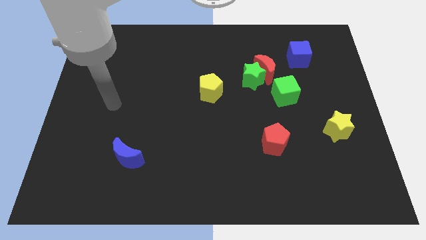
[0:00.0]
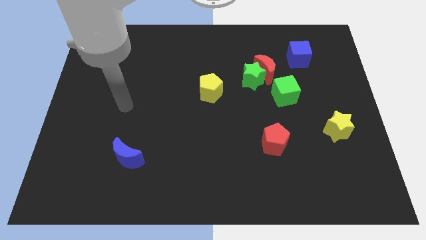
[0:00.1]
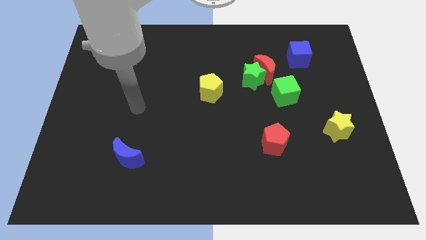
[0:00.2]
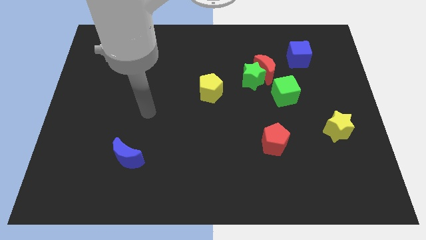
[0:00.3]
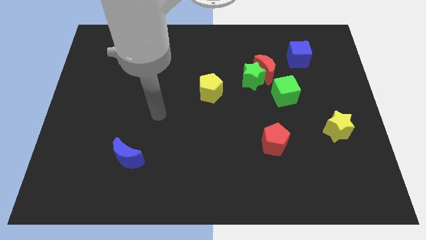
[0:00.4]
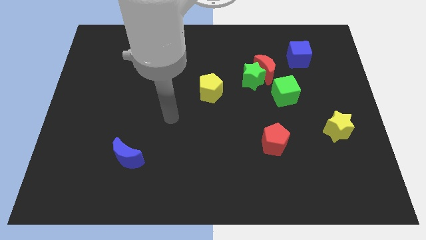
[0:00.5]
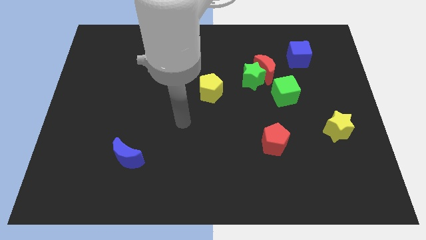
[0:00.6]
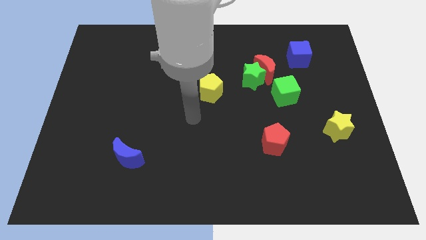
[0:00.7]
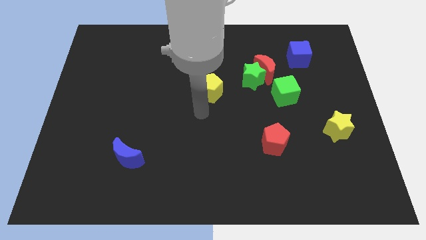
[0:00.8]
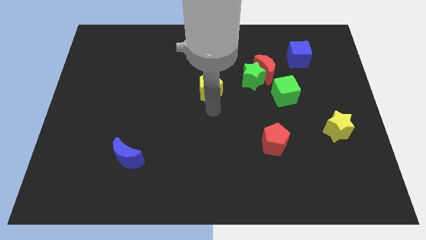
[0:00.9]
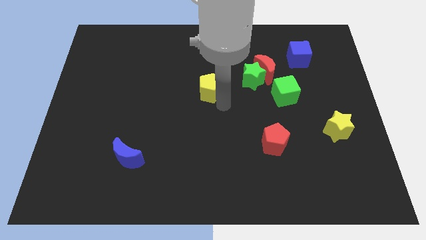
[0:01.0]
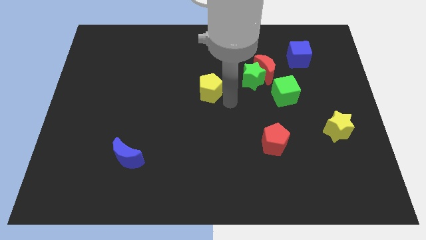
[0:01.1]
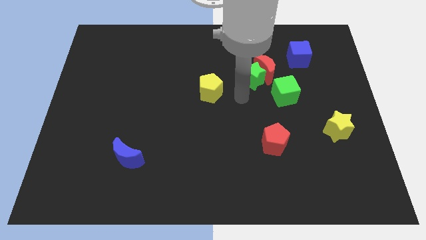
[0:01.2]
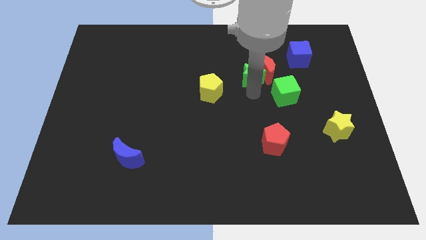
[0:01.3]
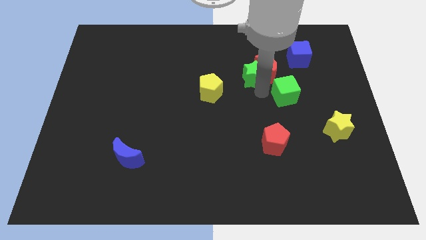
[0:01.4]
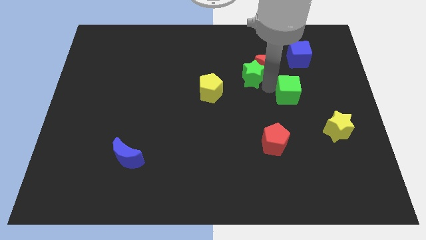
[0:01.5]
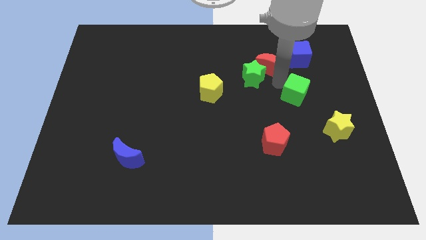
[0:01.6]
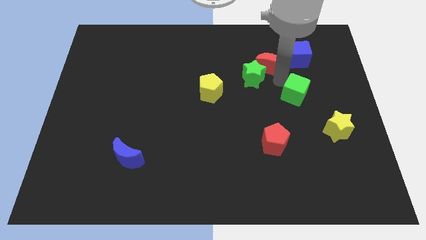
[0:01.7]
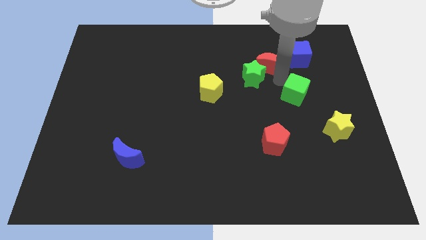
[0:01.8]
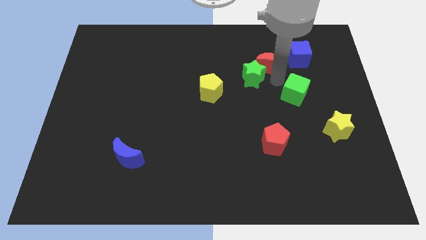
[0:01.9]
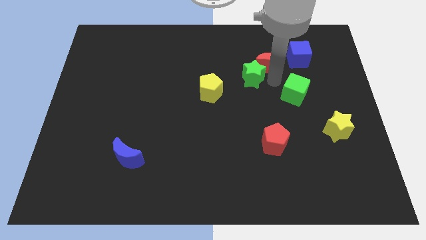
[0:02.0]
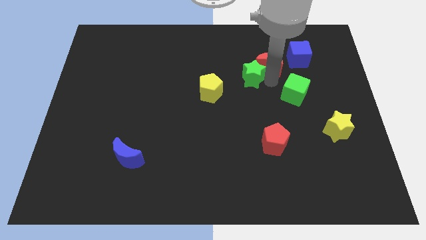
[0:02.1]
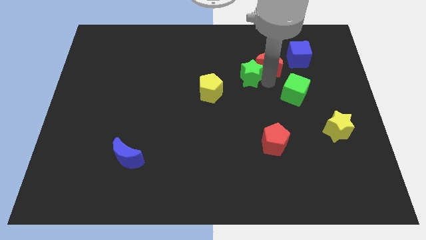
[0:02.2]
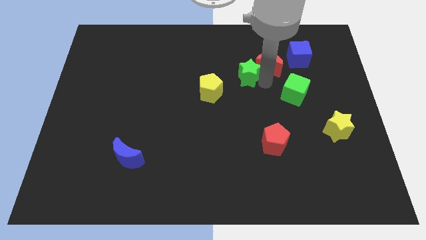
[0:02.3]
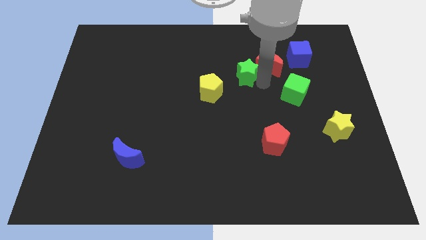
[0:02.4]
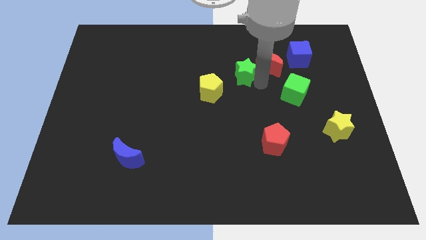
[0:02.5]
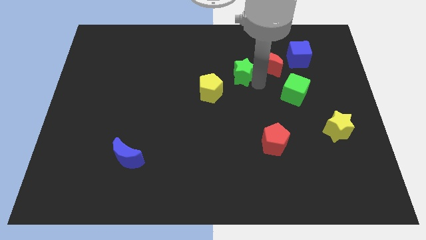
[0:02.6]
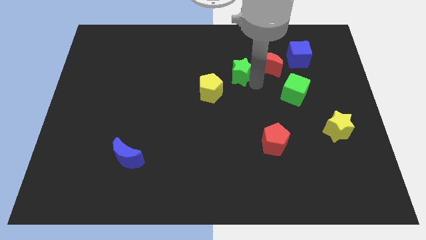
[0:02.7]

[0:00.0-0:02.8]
separate the green star from the red moon and green cube

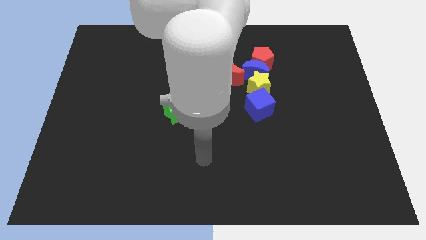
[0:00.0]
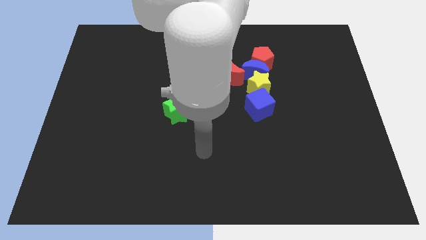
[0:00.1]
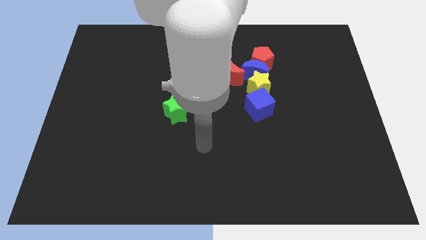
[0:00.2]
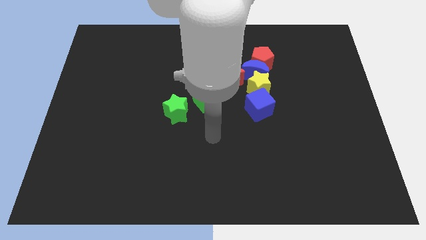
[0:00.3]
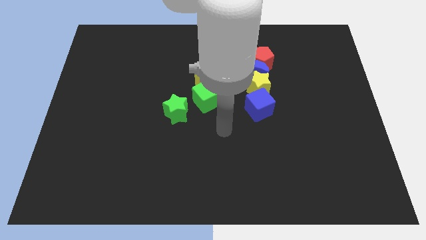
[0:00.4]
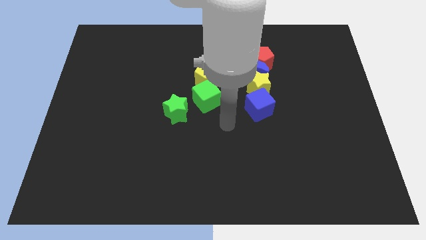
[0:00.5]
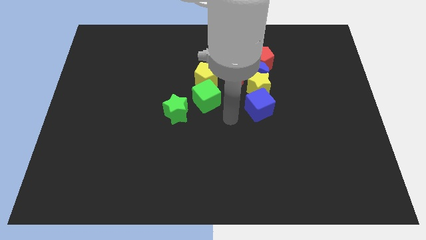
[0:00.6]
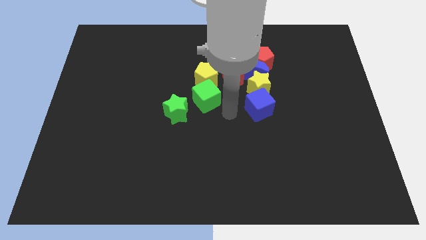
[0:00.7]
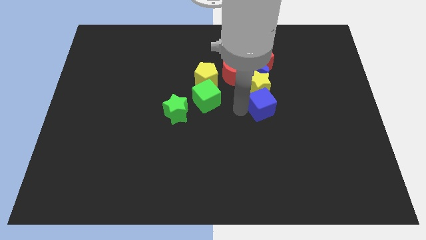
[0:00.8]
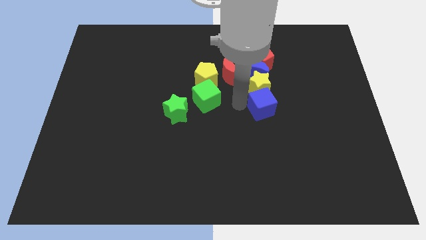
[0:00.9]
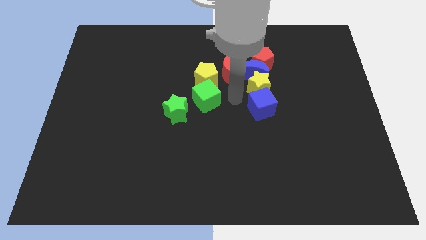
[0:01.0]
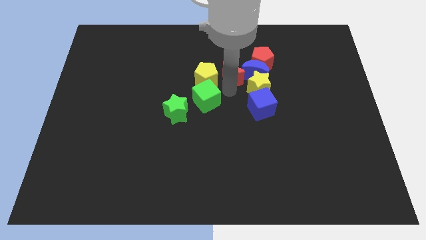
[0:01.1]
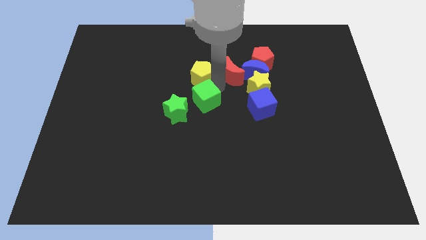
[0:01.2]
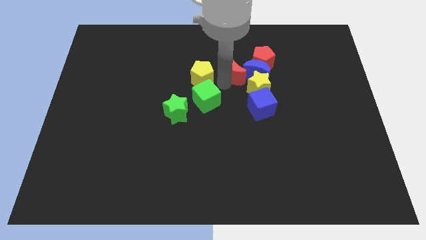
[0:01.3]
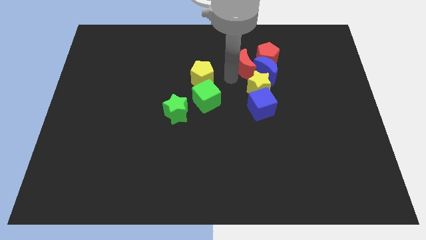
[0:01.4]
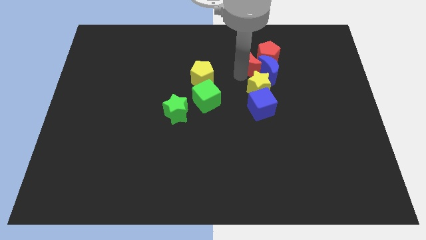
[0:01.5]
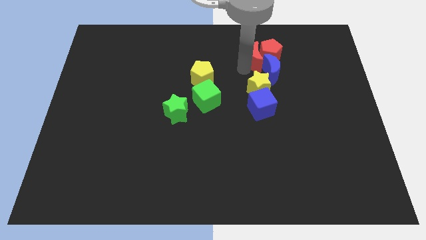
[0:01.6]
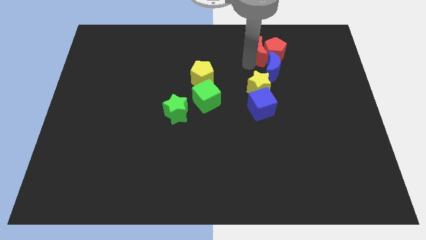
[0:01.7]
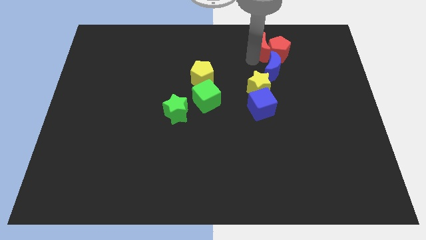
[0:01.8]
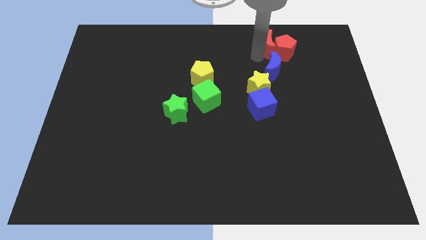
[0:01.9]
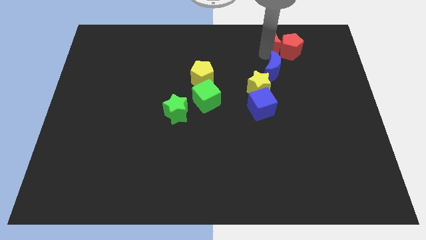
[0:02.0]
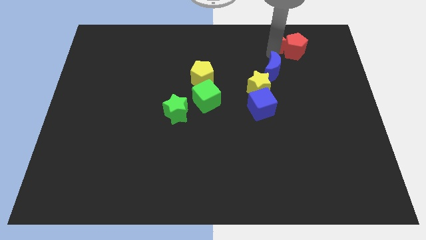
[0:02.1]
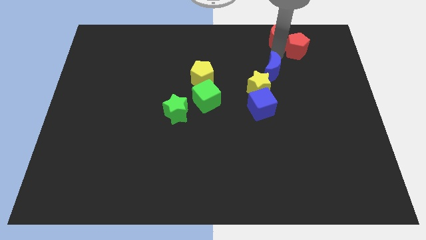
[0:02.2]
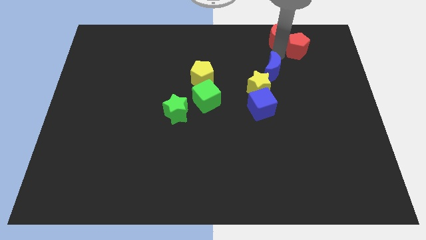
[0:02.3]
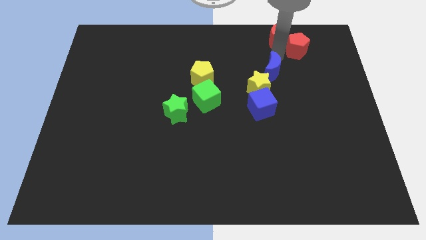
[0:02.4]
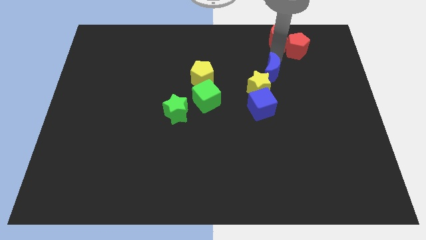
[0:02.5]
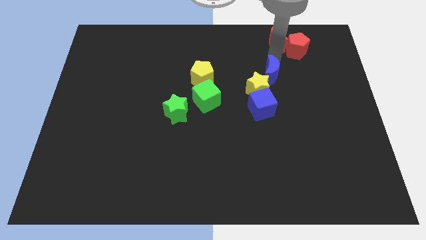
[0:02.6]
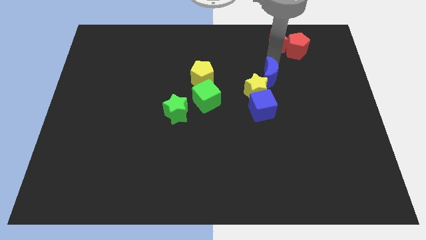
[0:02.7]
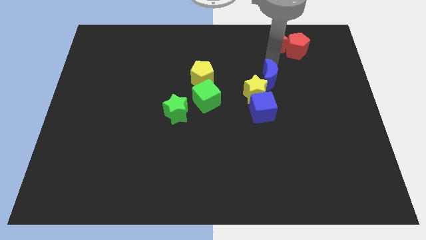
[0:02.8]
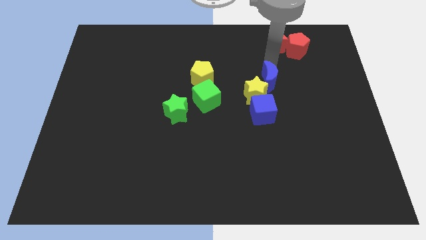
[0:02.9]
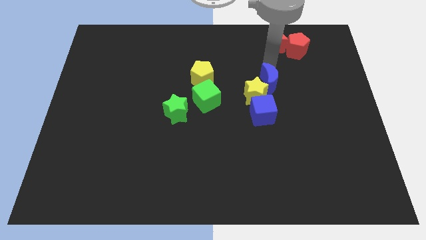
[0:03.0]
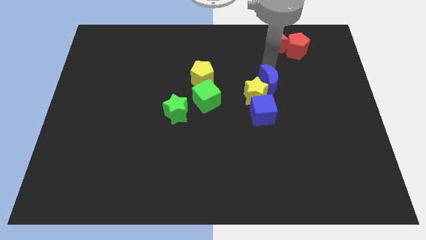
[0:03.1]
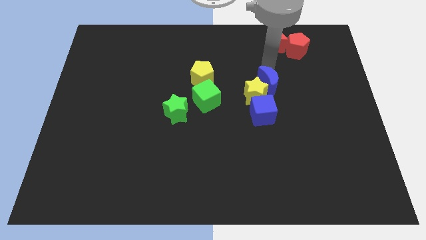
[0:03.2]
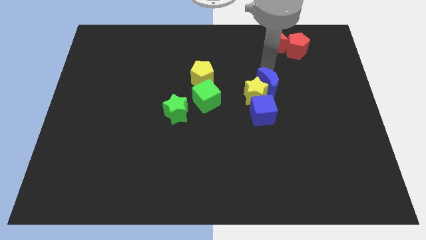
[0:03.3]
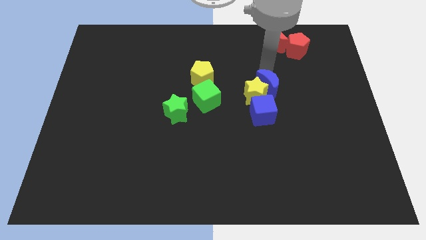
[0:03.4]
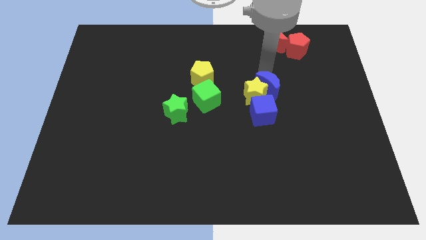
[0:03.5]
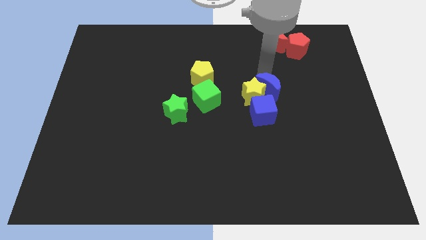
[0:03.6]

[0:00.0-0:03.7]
move the blue moon away from the group

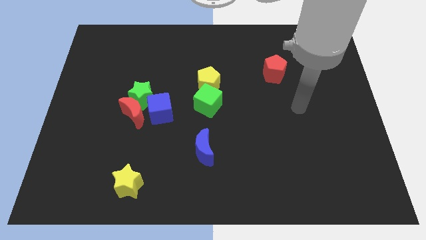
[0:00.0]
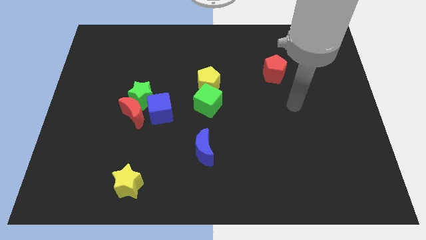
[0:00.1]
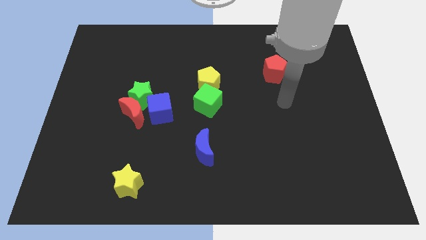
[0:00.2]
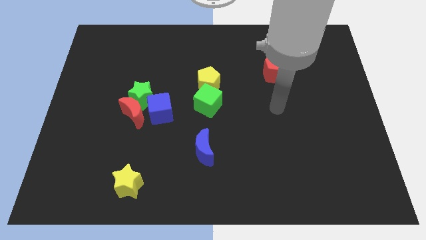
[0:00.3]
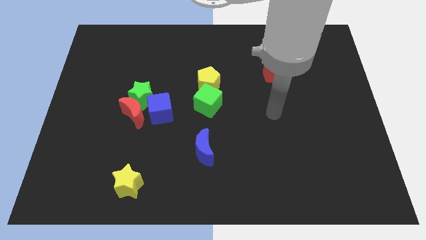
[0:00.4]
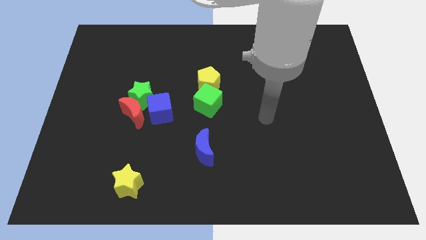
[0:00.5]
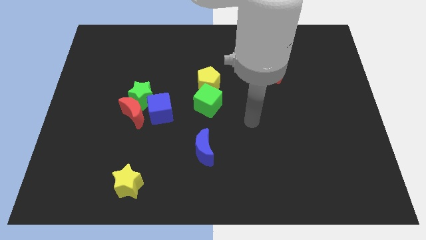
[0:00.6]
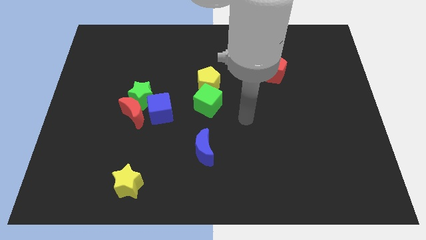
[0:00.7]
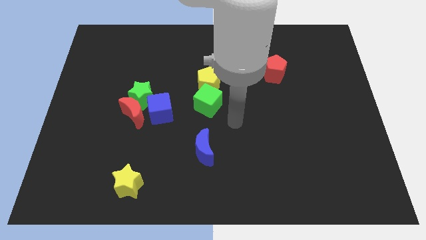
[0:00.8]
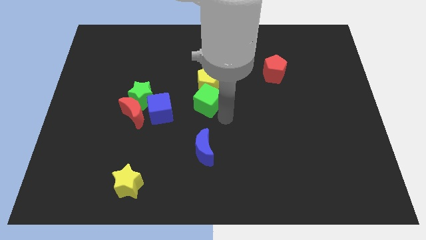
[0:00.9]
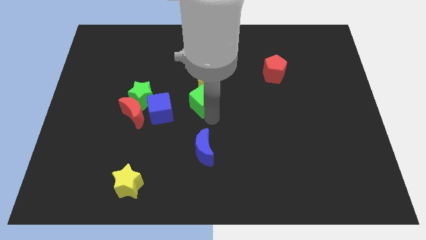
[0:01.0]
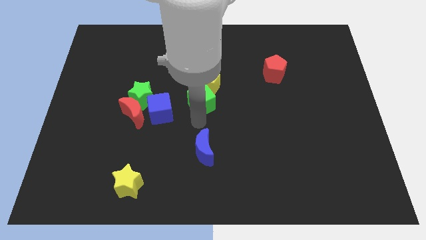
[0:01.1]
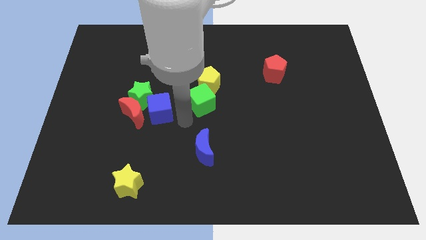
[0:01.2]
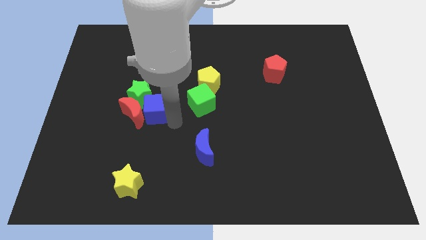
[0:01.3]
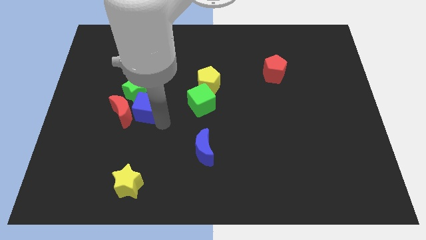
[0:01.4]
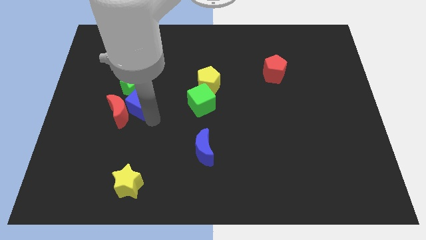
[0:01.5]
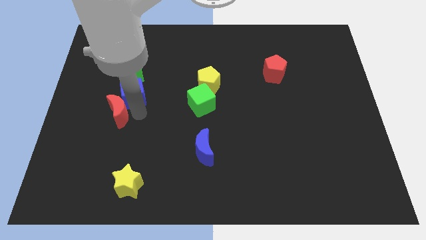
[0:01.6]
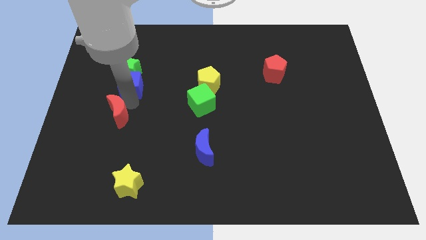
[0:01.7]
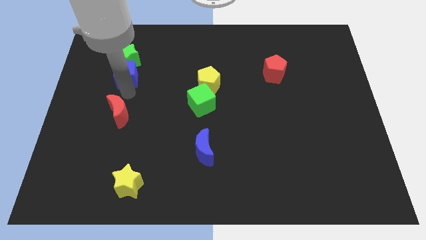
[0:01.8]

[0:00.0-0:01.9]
separate the green star from the red moon and blue cube

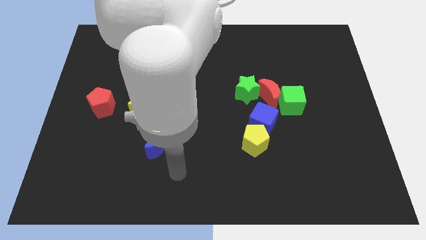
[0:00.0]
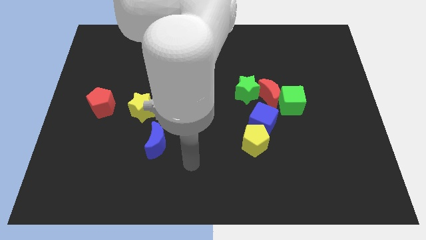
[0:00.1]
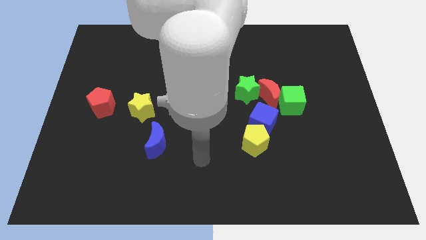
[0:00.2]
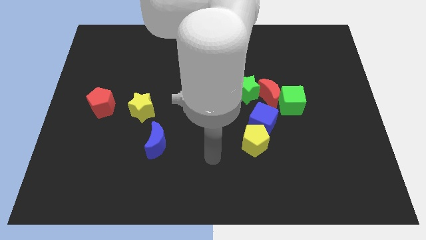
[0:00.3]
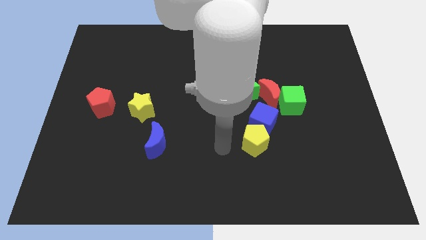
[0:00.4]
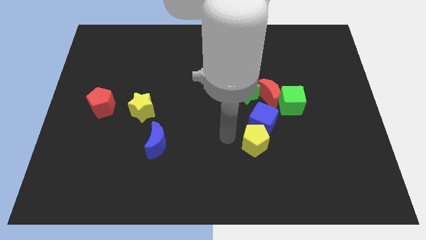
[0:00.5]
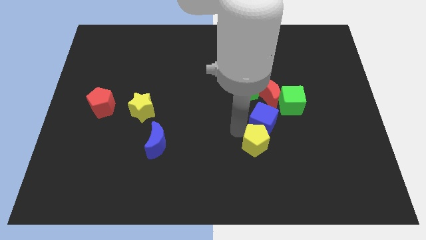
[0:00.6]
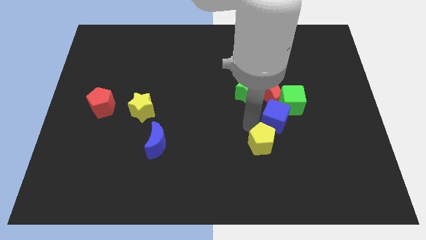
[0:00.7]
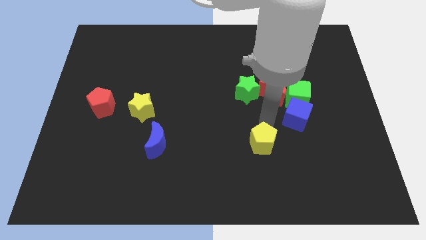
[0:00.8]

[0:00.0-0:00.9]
separate the yellow pentagon from the blue cube

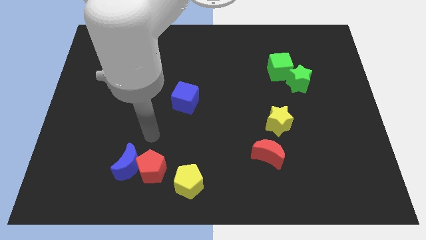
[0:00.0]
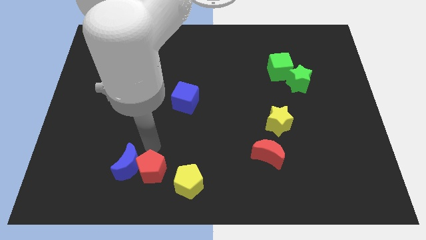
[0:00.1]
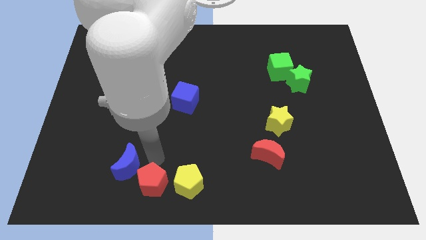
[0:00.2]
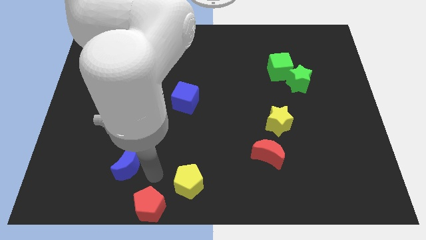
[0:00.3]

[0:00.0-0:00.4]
separate the blue moon from the red pentagon
